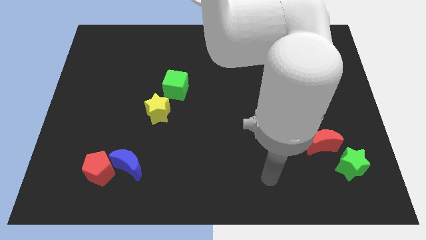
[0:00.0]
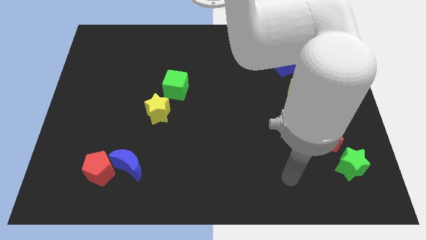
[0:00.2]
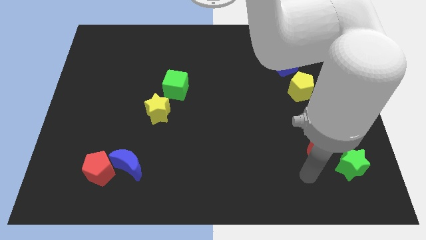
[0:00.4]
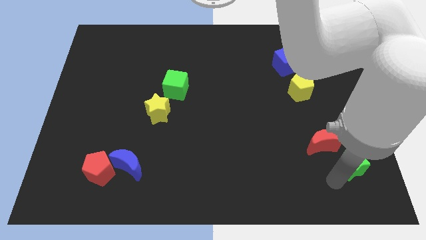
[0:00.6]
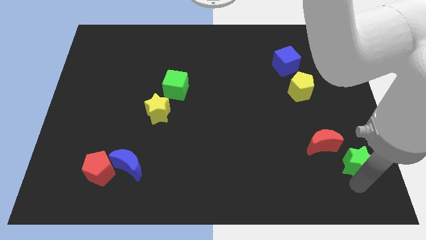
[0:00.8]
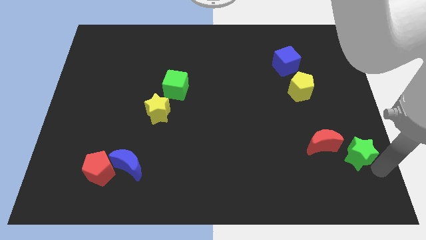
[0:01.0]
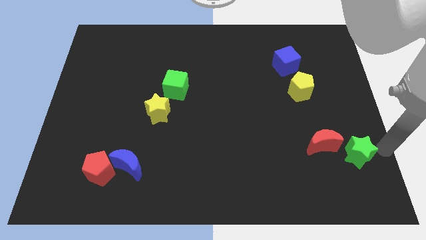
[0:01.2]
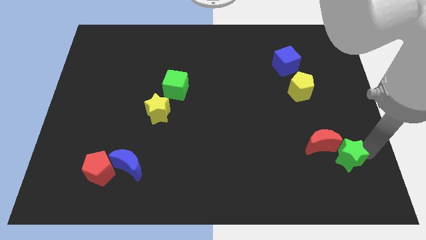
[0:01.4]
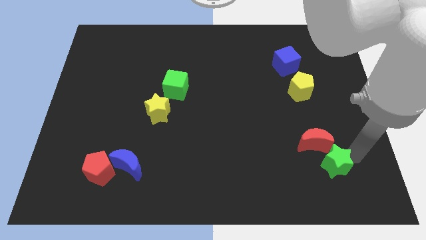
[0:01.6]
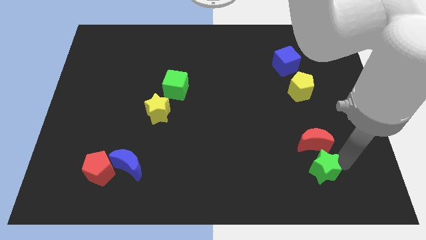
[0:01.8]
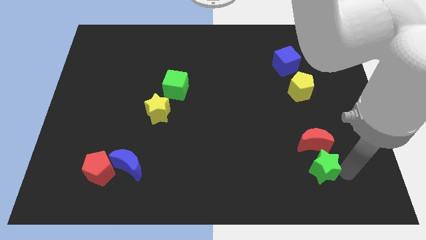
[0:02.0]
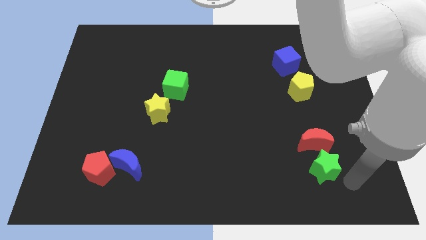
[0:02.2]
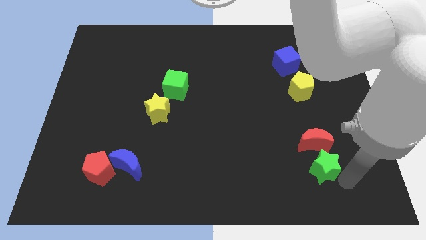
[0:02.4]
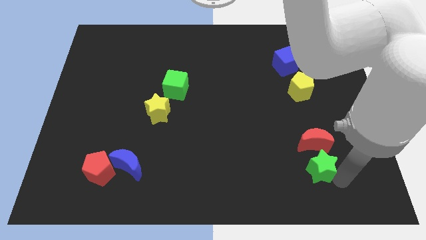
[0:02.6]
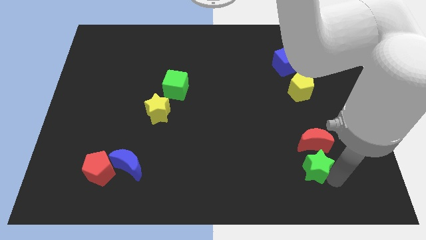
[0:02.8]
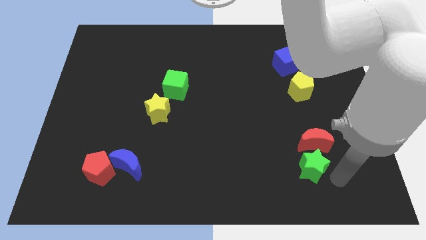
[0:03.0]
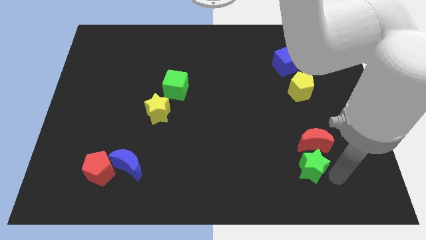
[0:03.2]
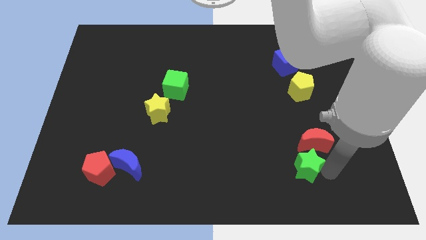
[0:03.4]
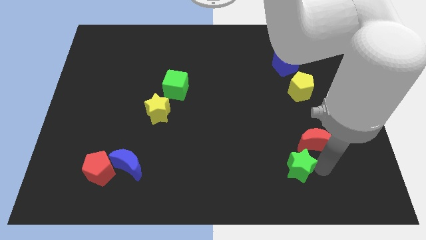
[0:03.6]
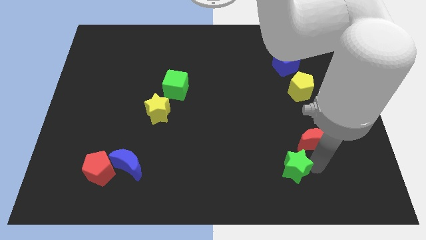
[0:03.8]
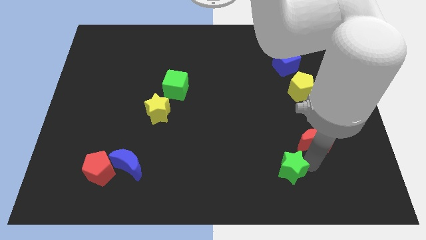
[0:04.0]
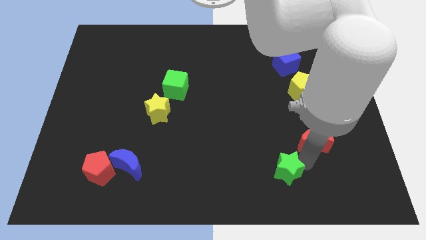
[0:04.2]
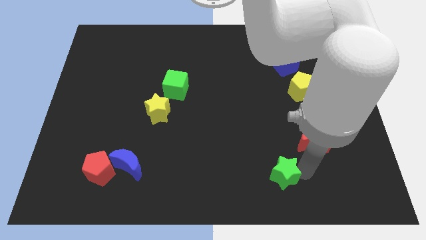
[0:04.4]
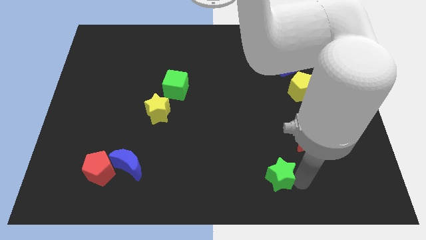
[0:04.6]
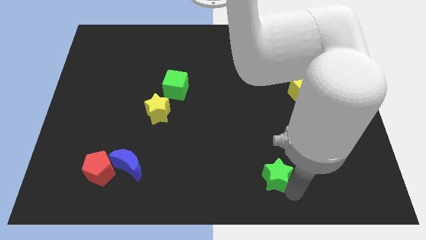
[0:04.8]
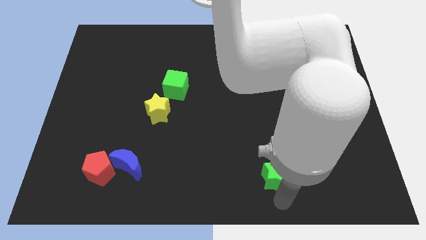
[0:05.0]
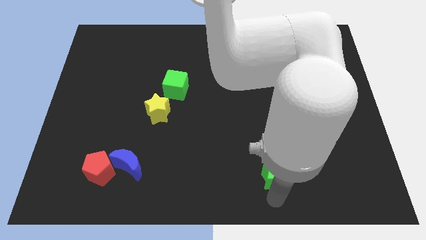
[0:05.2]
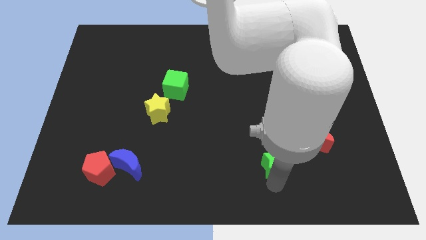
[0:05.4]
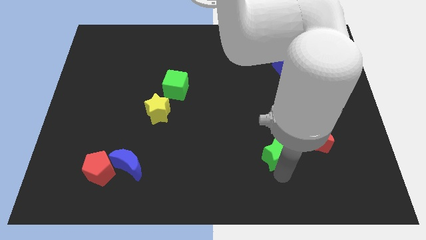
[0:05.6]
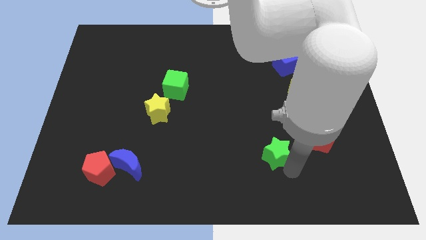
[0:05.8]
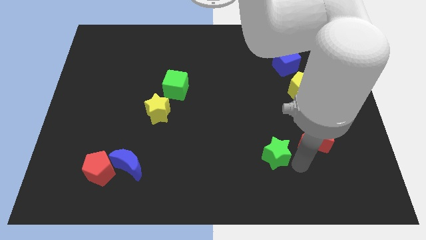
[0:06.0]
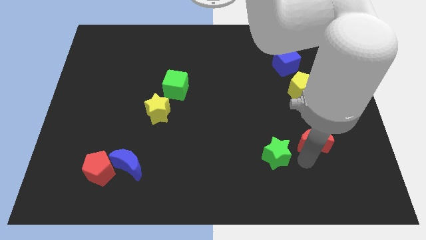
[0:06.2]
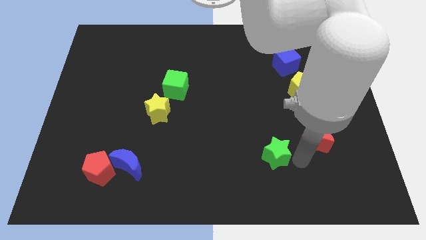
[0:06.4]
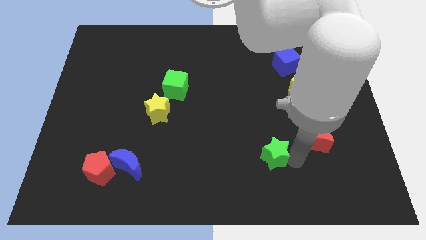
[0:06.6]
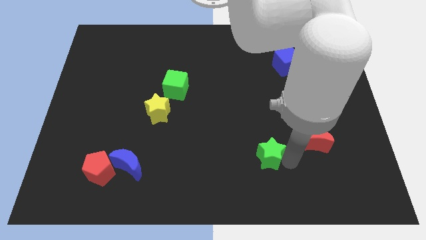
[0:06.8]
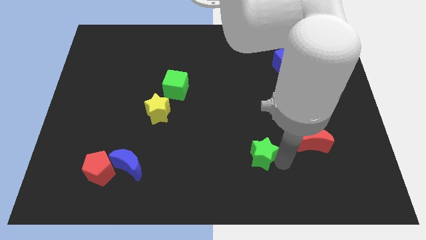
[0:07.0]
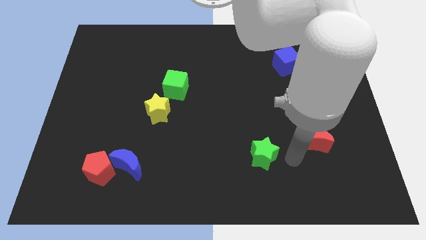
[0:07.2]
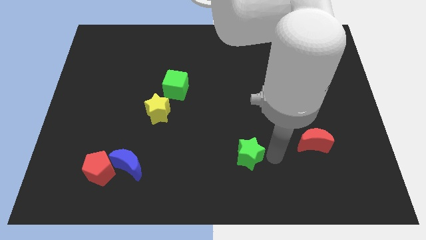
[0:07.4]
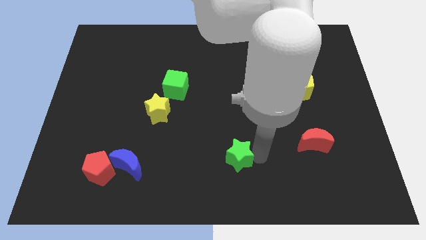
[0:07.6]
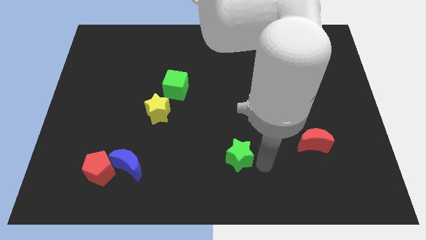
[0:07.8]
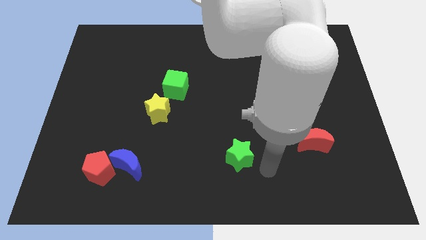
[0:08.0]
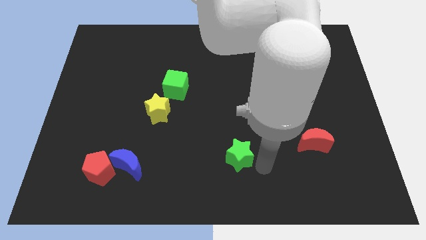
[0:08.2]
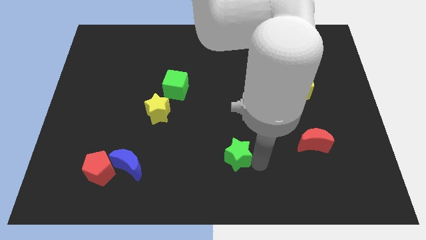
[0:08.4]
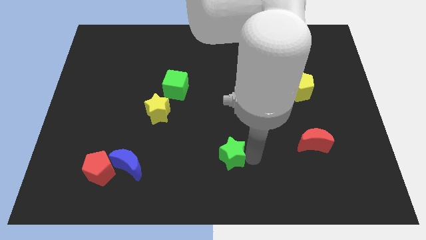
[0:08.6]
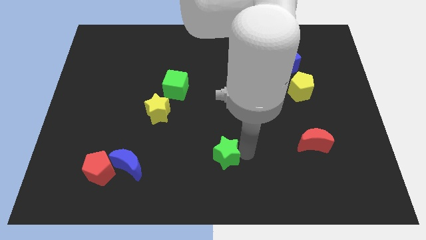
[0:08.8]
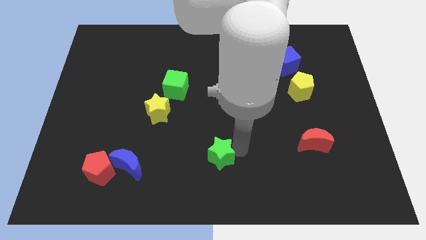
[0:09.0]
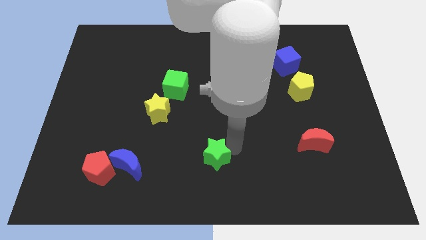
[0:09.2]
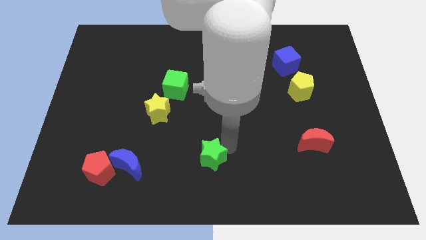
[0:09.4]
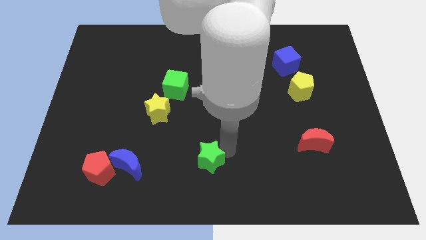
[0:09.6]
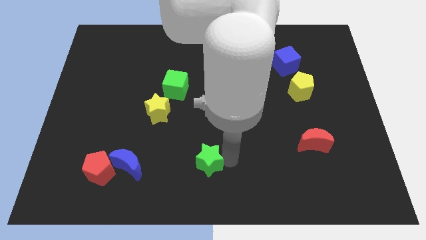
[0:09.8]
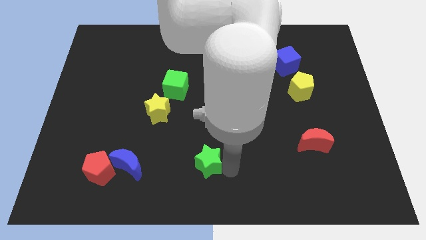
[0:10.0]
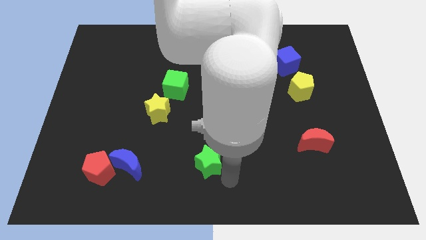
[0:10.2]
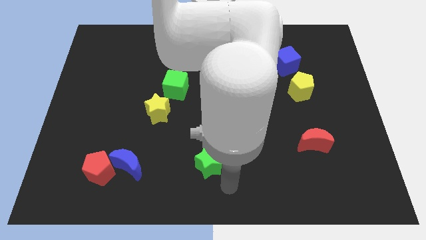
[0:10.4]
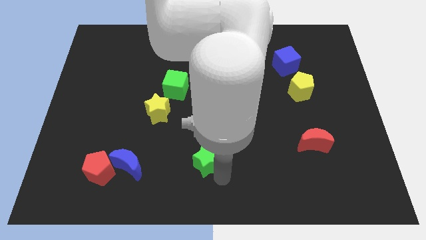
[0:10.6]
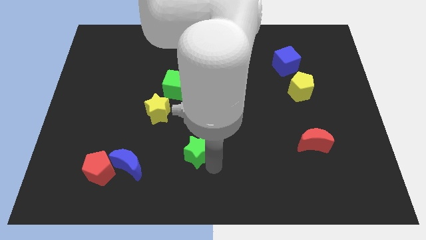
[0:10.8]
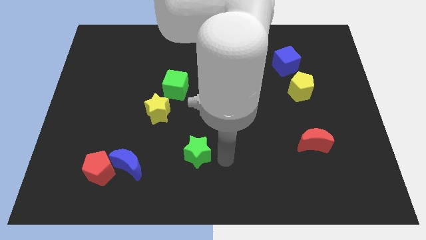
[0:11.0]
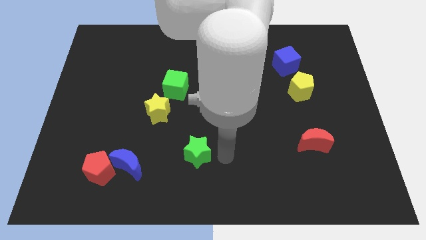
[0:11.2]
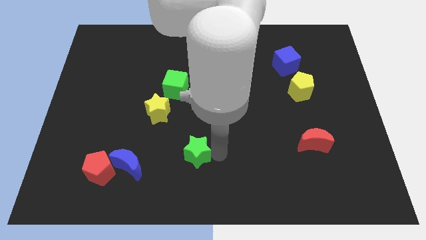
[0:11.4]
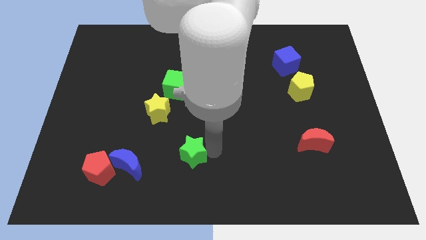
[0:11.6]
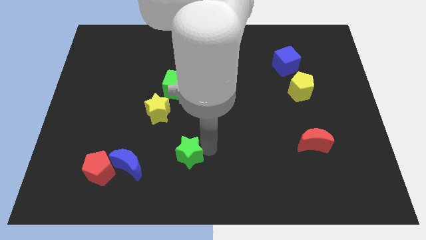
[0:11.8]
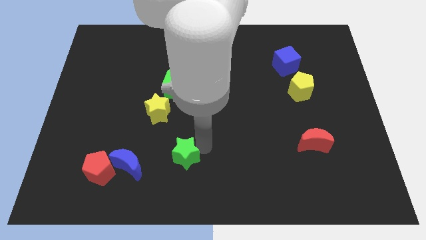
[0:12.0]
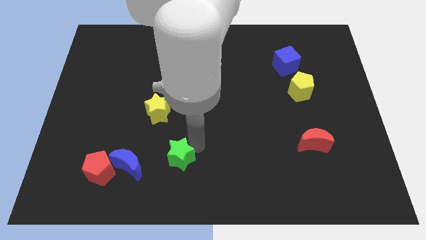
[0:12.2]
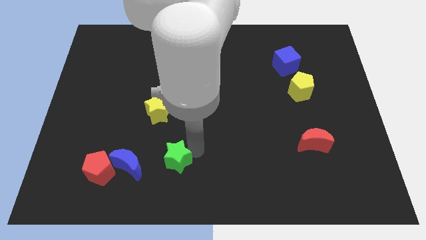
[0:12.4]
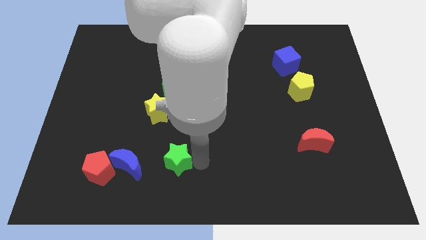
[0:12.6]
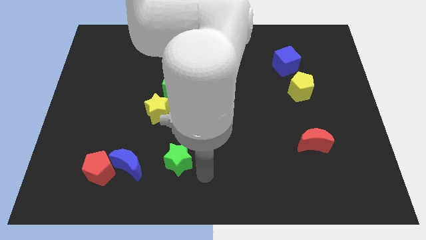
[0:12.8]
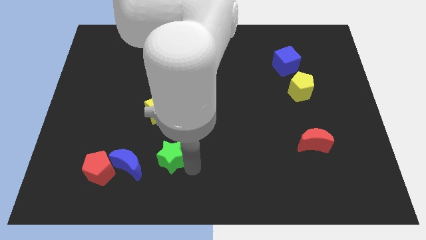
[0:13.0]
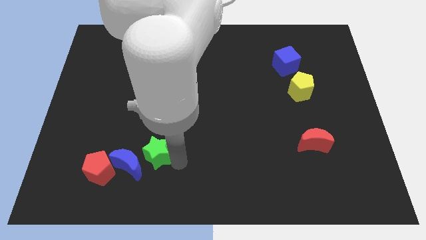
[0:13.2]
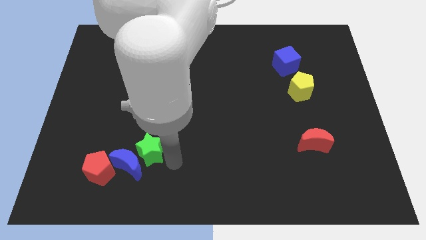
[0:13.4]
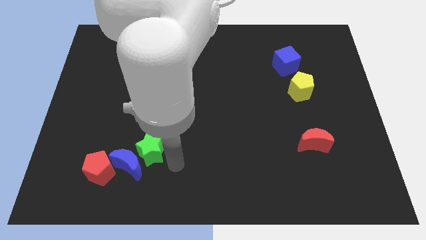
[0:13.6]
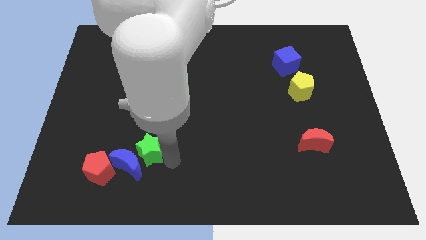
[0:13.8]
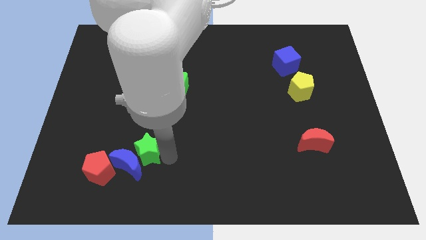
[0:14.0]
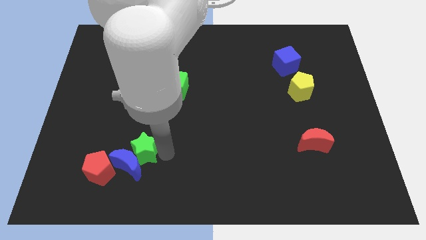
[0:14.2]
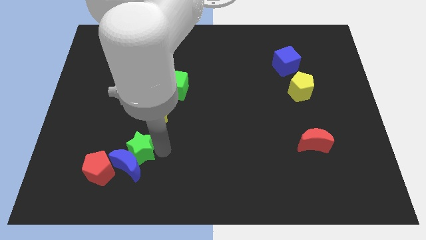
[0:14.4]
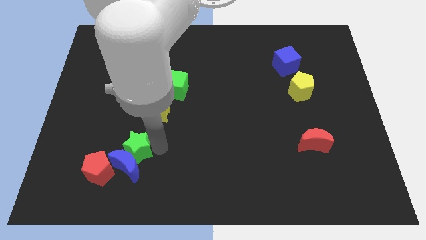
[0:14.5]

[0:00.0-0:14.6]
put the green star diagonally up and to the left of the blue moon
